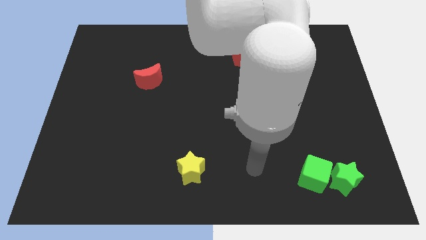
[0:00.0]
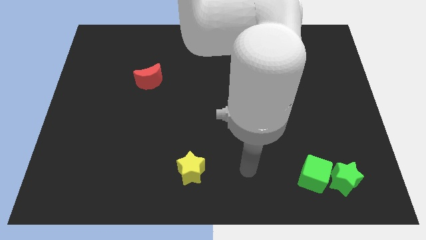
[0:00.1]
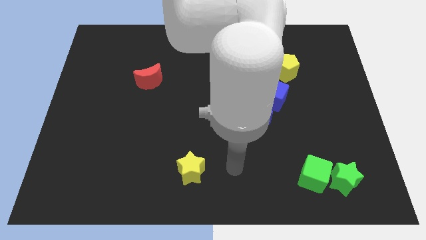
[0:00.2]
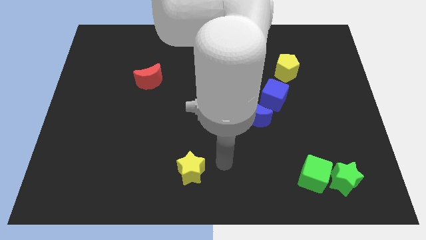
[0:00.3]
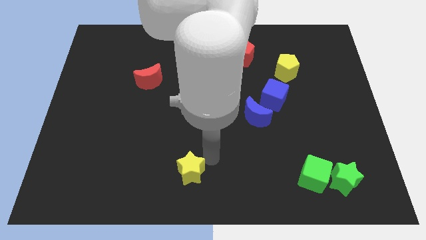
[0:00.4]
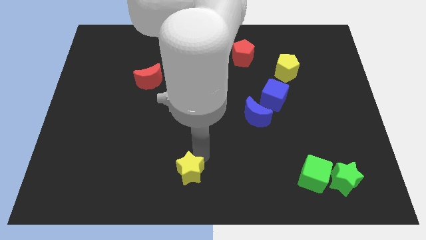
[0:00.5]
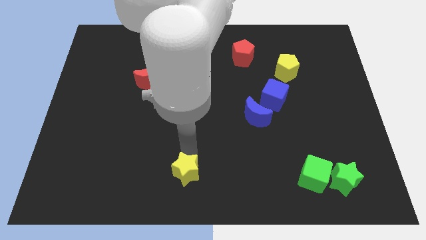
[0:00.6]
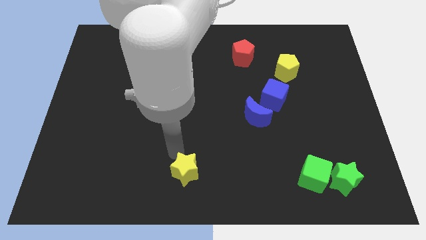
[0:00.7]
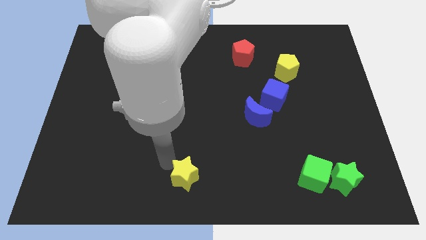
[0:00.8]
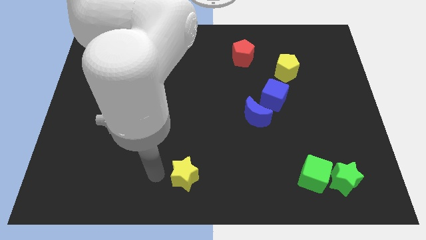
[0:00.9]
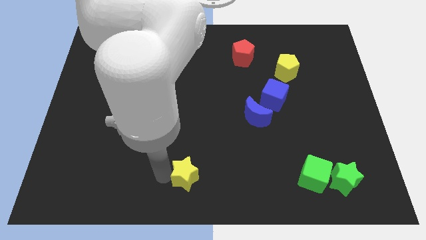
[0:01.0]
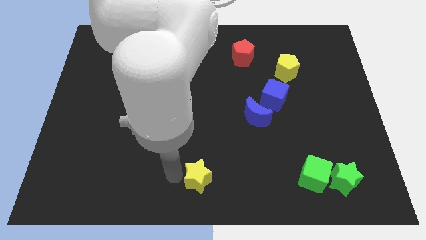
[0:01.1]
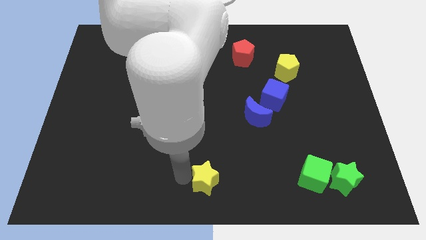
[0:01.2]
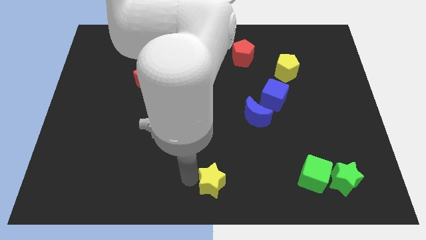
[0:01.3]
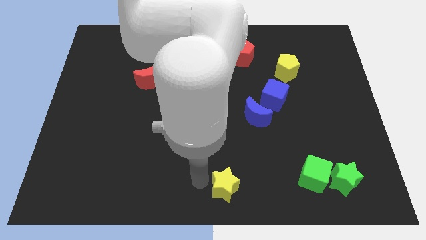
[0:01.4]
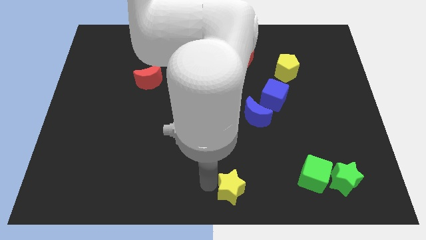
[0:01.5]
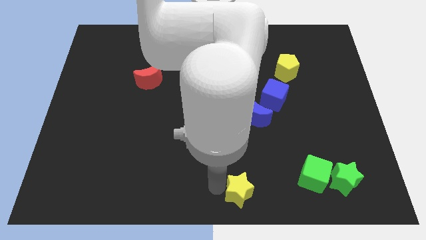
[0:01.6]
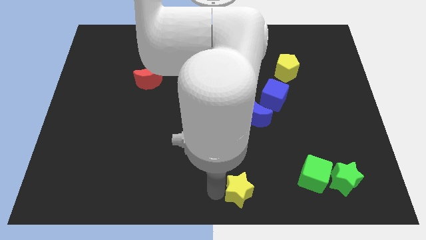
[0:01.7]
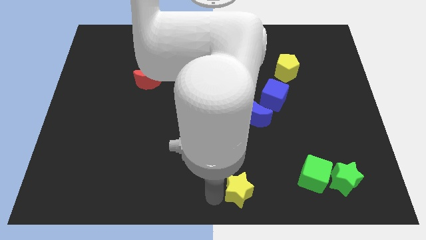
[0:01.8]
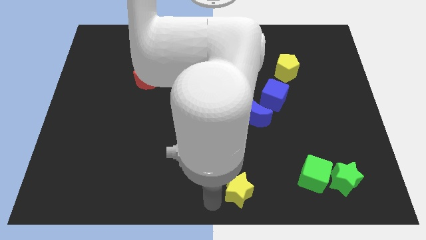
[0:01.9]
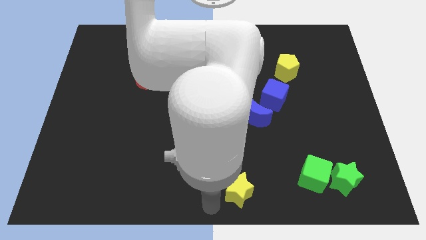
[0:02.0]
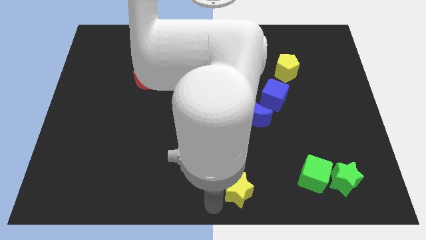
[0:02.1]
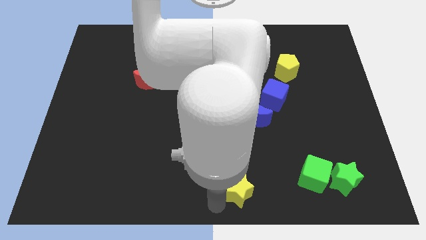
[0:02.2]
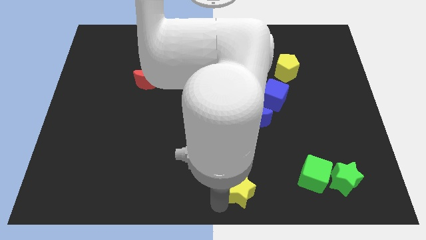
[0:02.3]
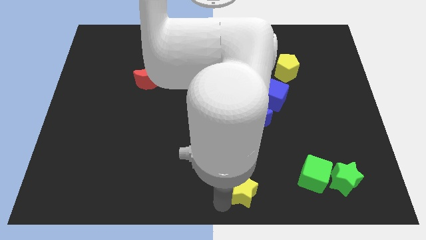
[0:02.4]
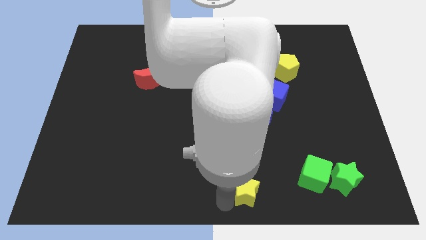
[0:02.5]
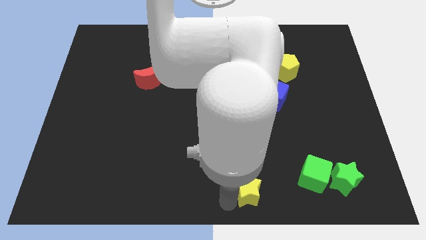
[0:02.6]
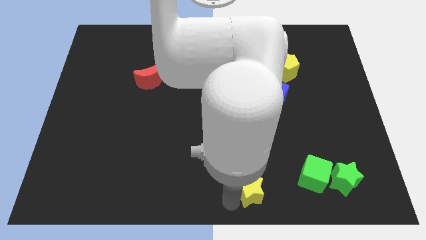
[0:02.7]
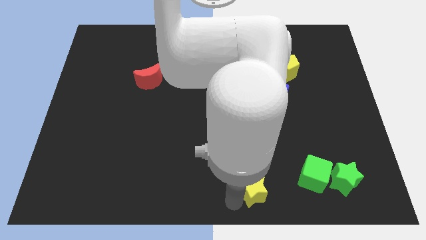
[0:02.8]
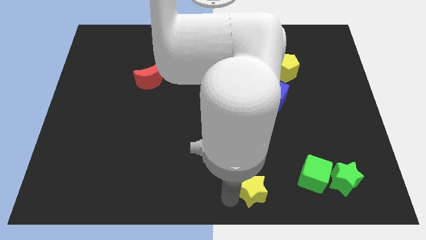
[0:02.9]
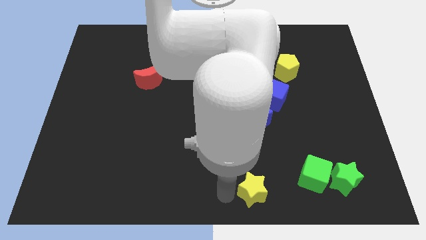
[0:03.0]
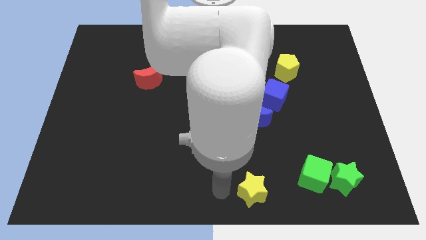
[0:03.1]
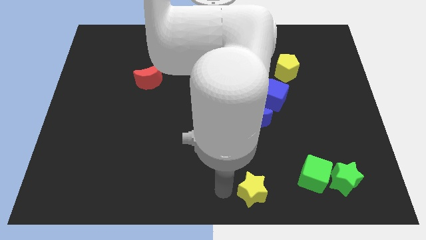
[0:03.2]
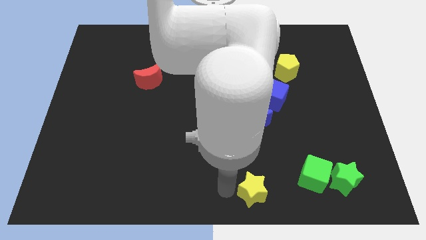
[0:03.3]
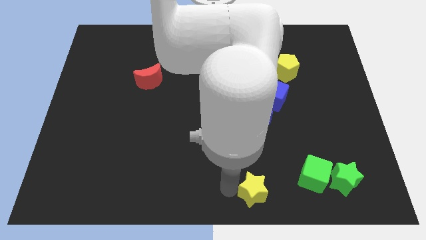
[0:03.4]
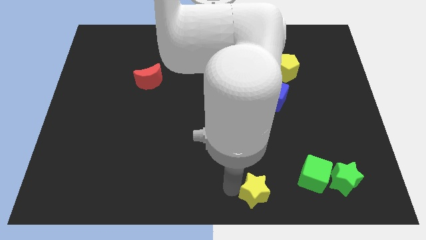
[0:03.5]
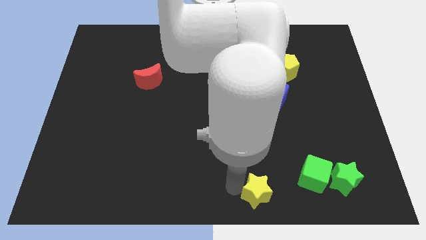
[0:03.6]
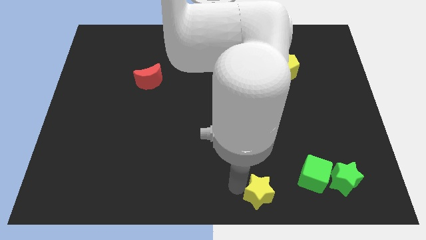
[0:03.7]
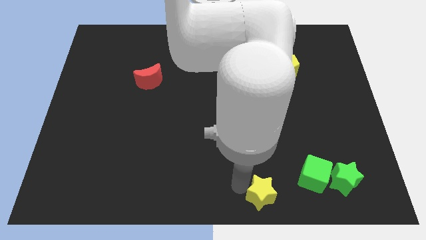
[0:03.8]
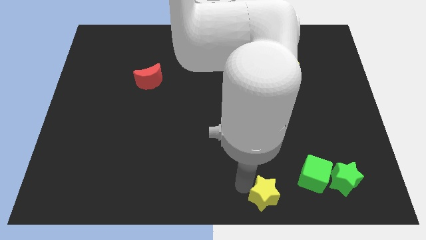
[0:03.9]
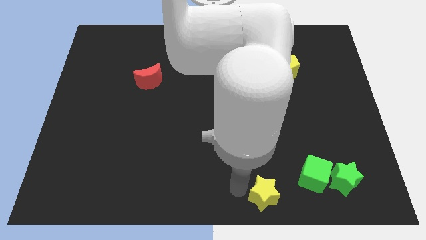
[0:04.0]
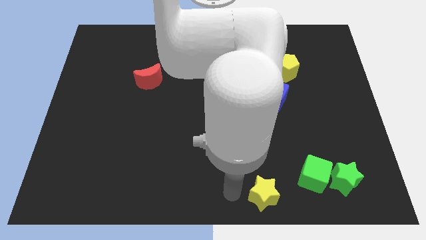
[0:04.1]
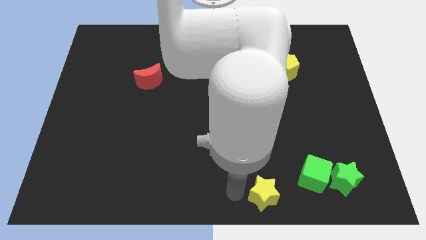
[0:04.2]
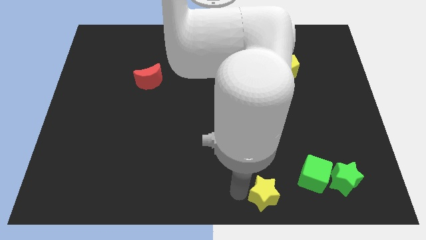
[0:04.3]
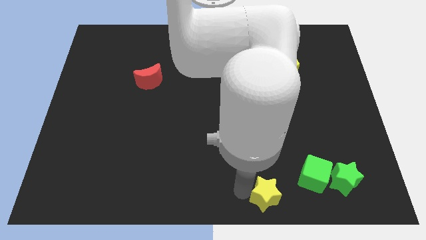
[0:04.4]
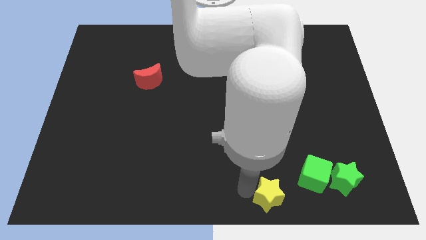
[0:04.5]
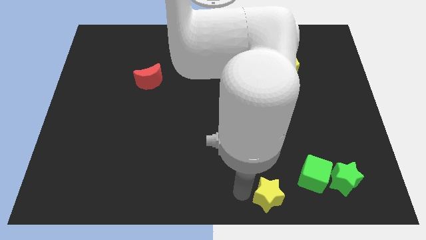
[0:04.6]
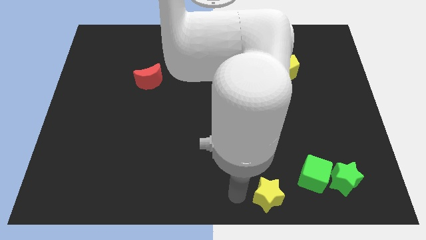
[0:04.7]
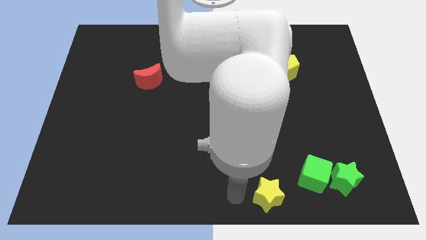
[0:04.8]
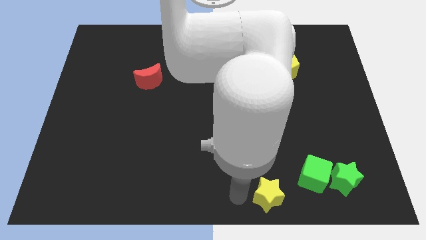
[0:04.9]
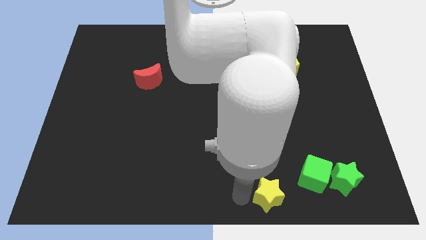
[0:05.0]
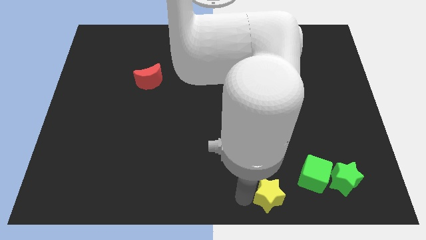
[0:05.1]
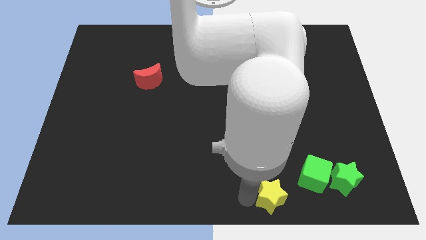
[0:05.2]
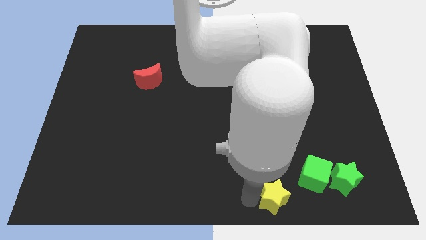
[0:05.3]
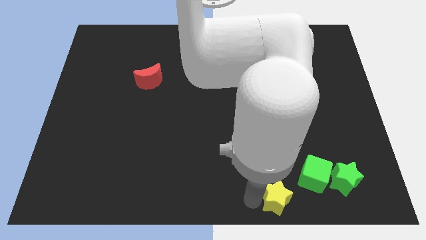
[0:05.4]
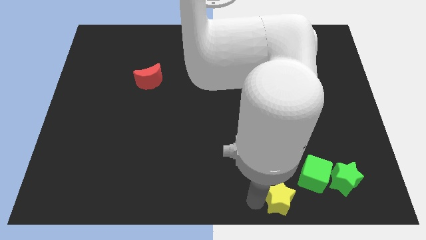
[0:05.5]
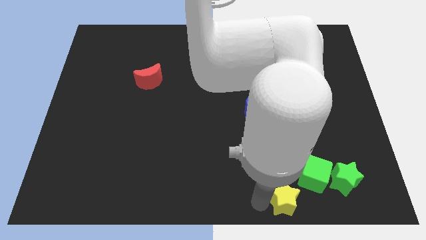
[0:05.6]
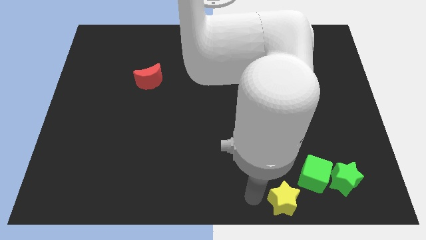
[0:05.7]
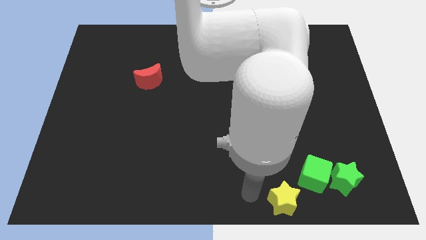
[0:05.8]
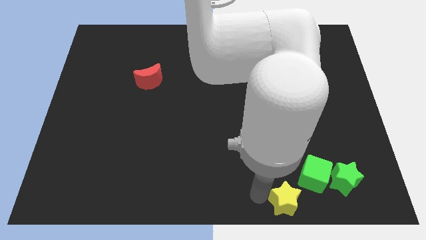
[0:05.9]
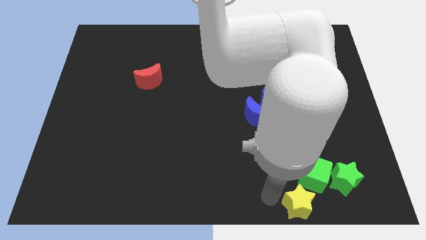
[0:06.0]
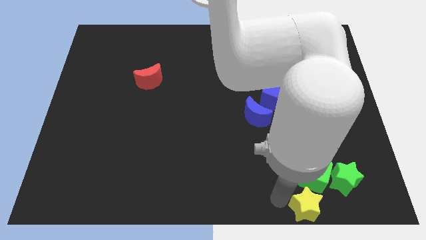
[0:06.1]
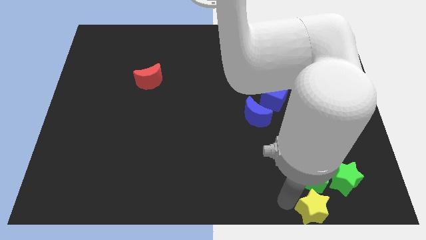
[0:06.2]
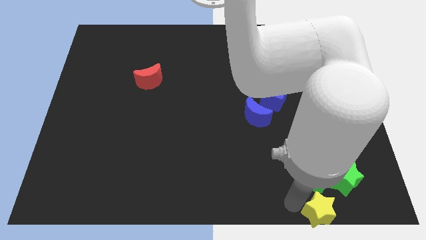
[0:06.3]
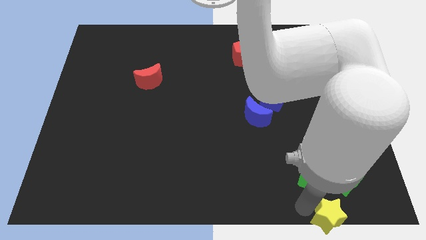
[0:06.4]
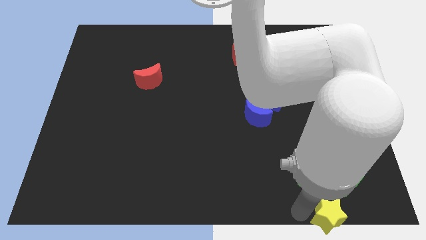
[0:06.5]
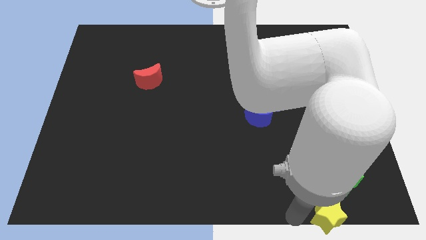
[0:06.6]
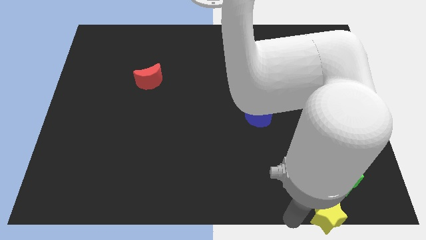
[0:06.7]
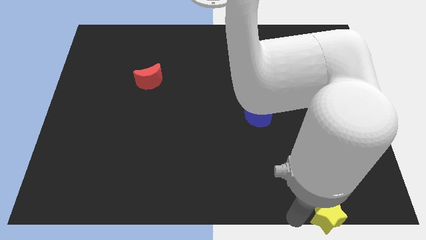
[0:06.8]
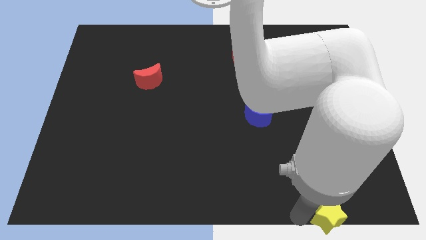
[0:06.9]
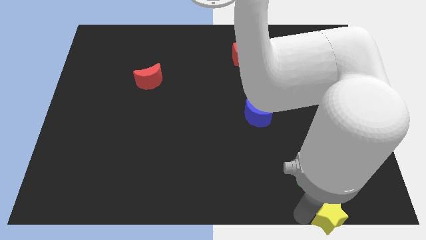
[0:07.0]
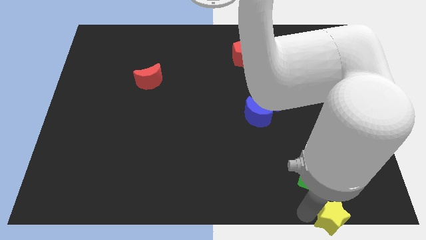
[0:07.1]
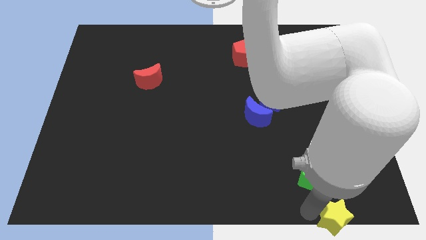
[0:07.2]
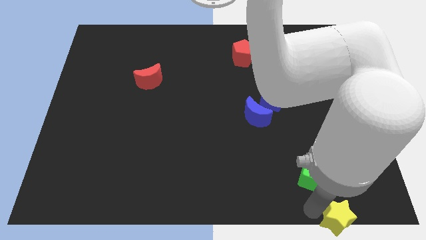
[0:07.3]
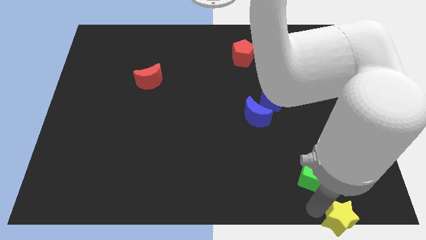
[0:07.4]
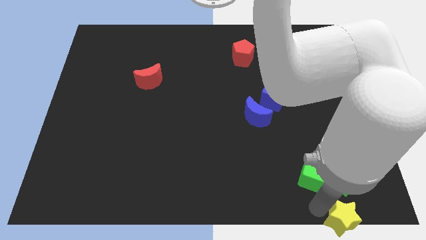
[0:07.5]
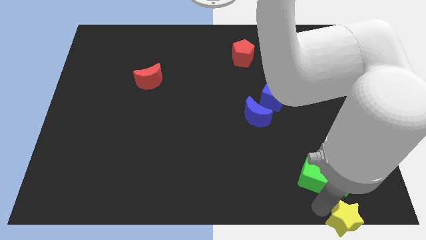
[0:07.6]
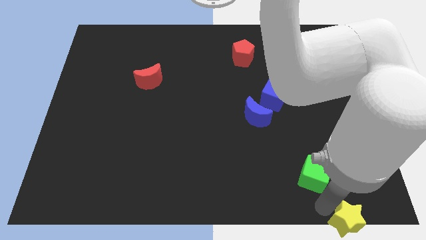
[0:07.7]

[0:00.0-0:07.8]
move the yellow star to the lower right corner
